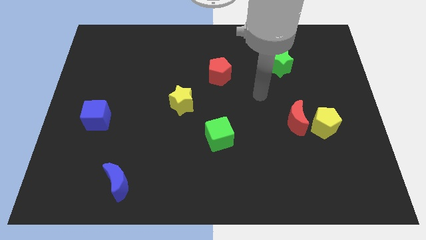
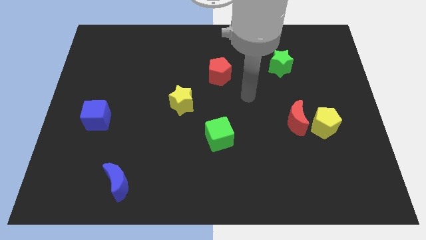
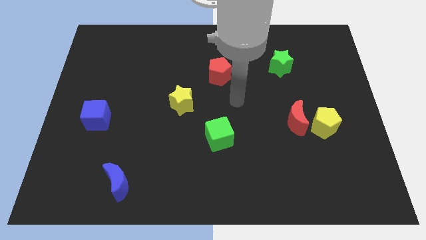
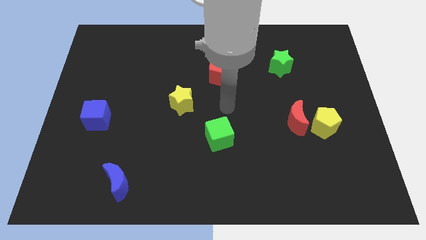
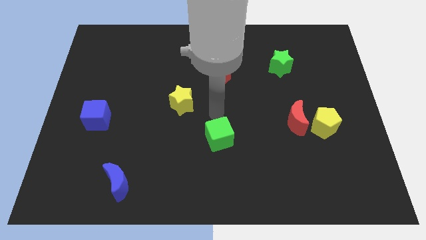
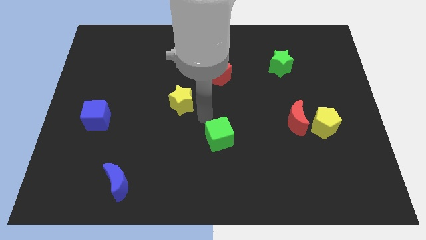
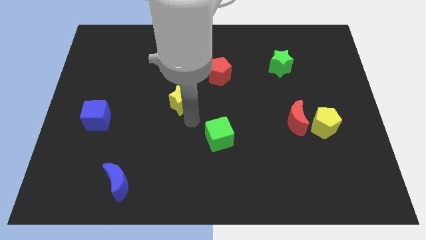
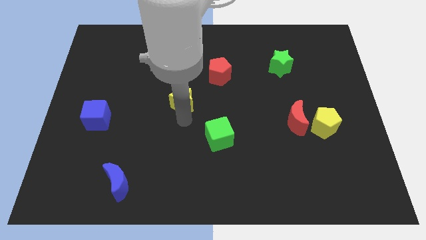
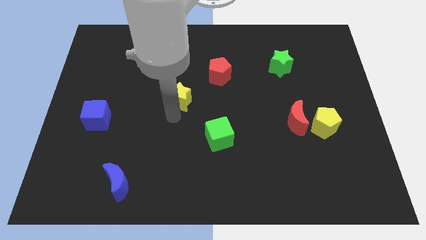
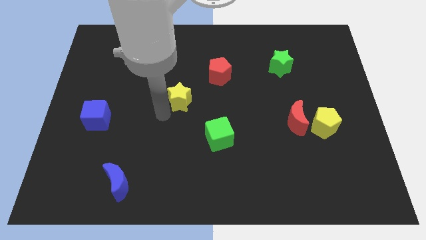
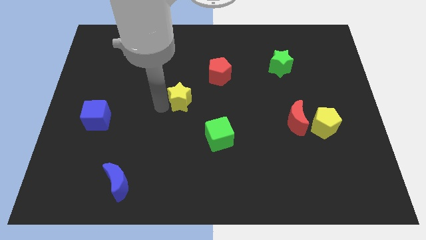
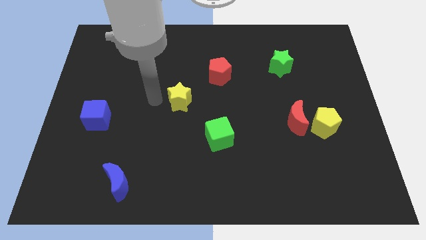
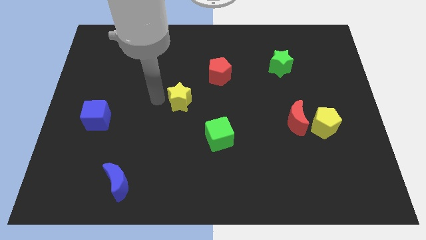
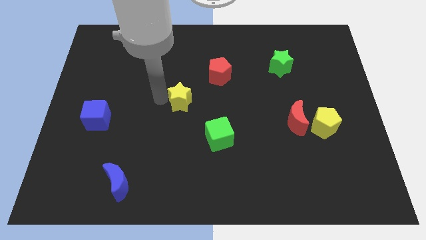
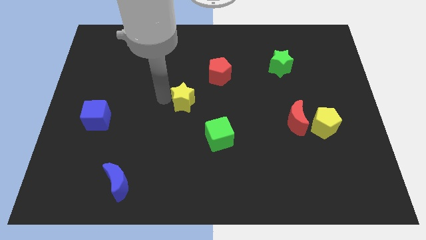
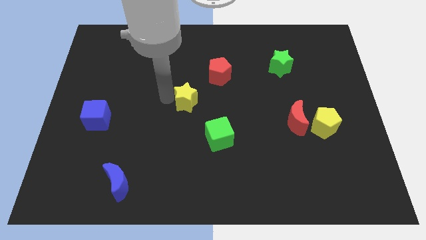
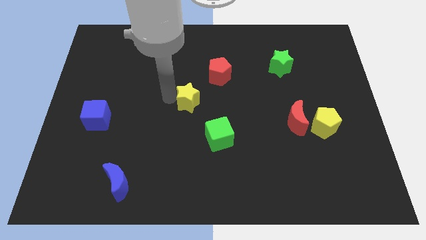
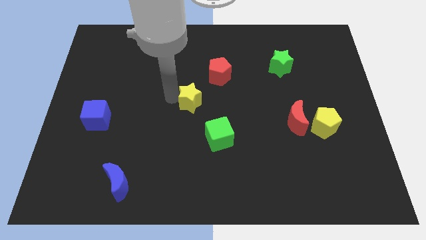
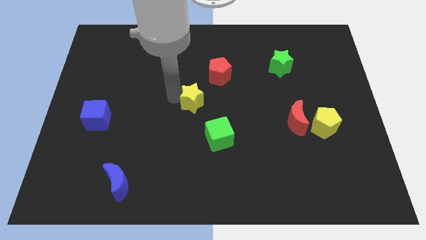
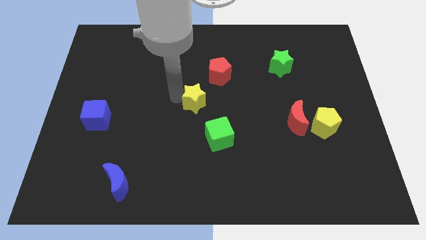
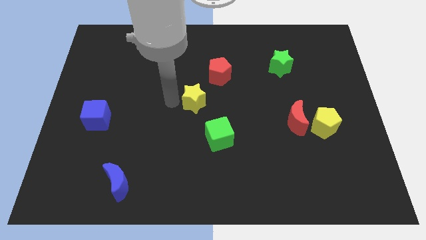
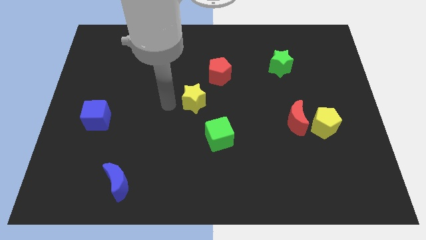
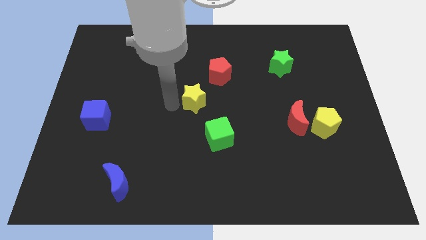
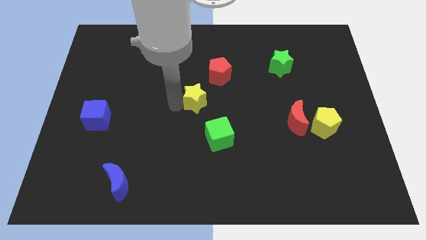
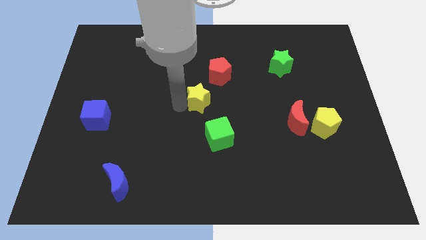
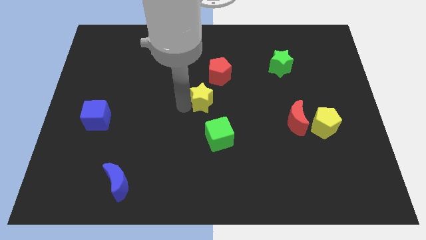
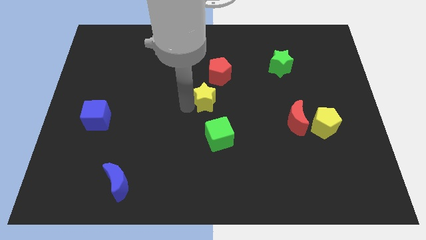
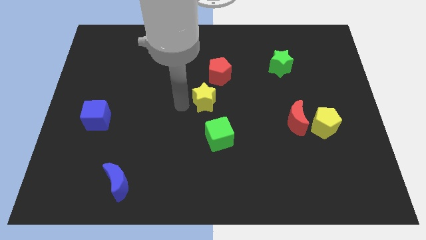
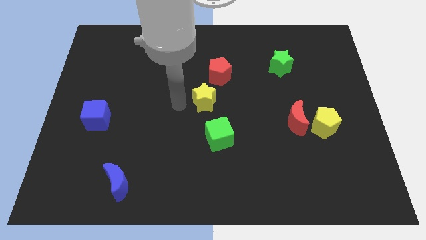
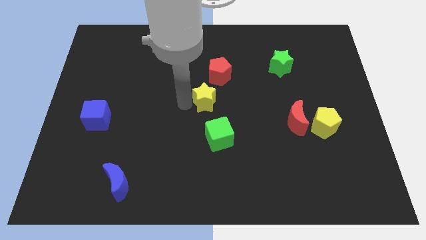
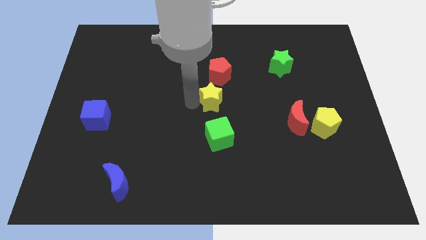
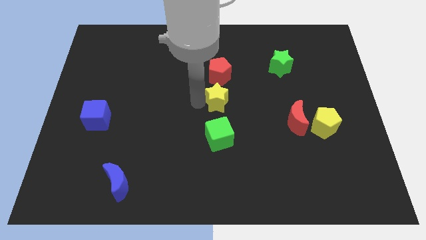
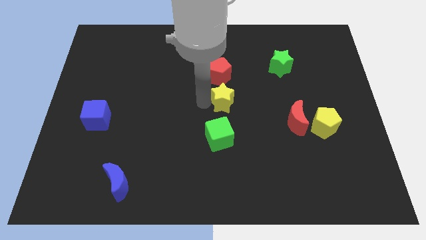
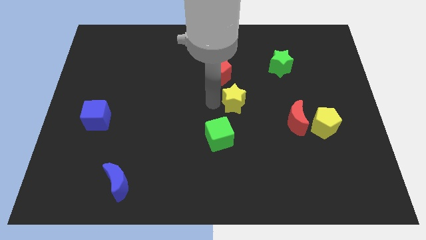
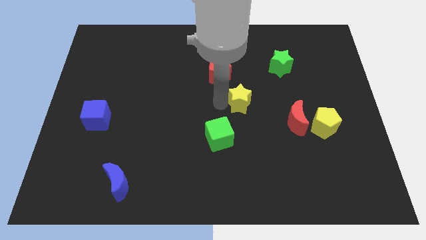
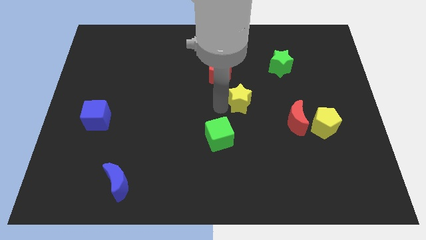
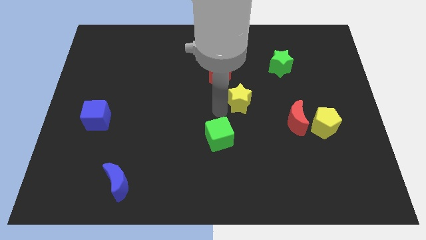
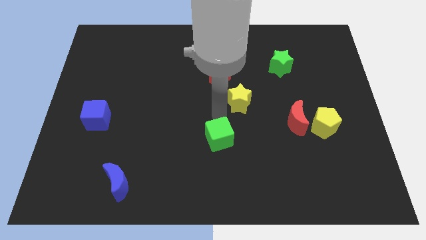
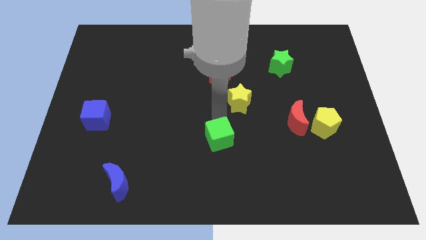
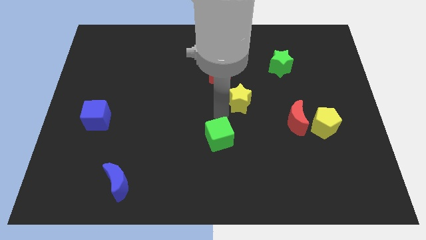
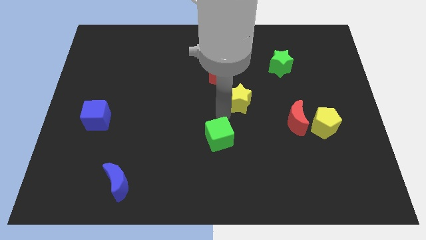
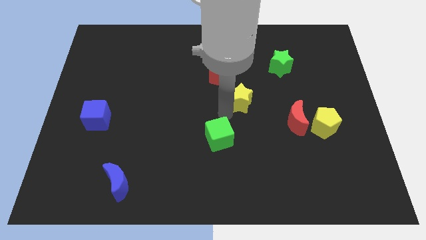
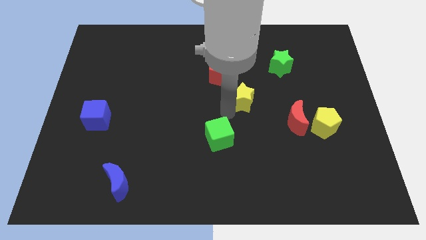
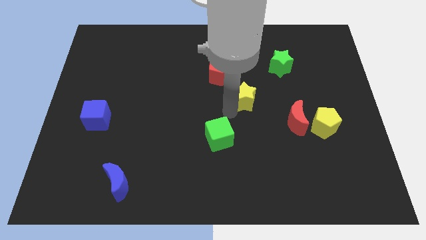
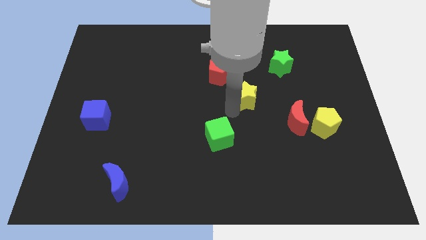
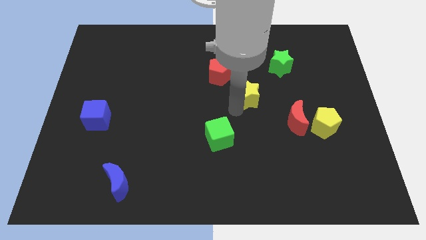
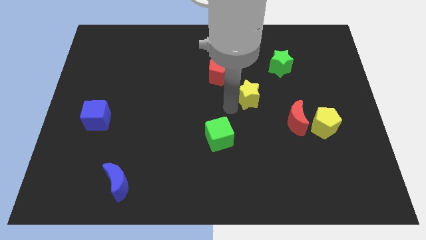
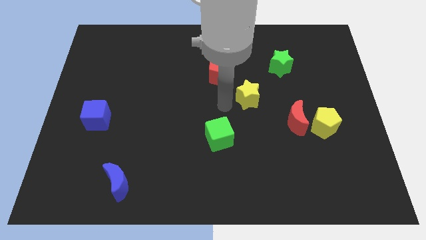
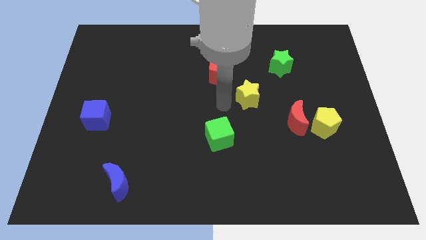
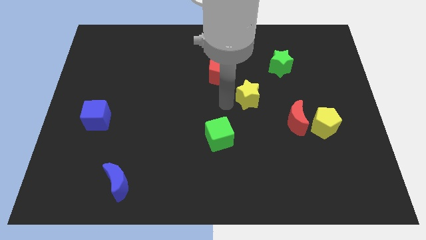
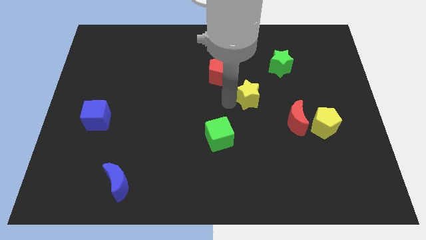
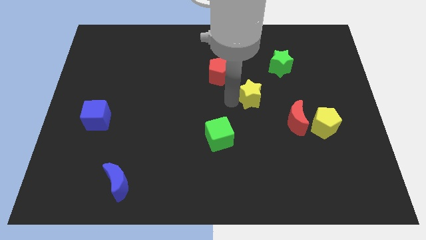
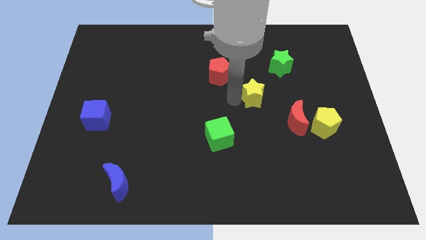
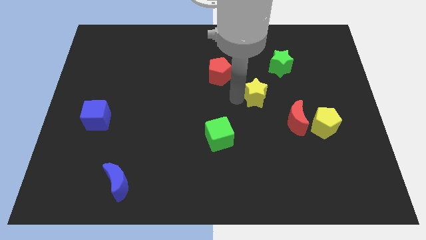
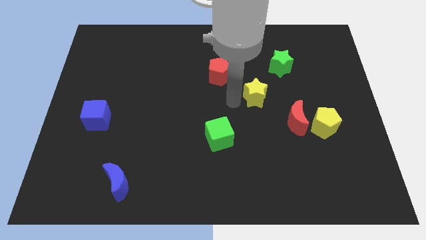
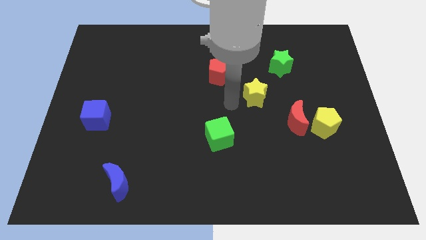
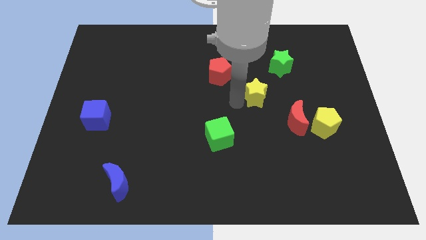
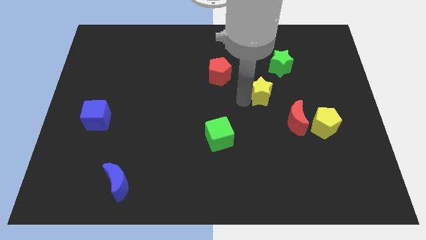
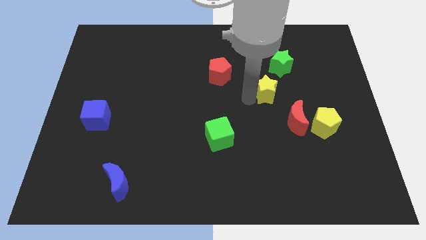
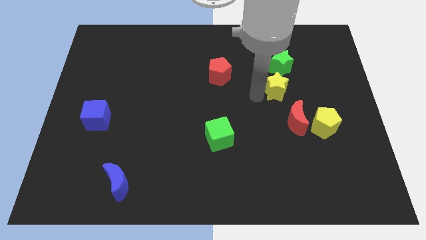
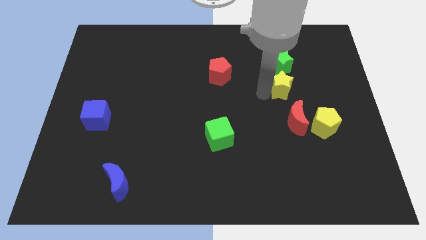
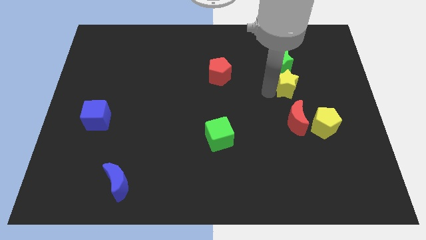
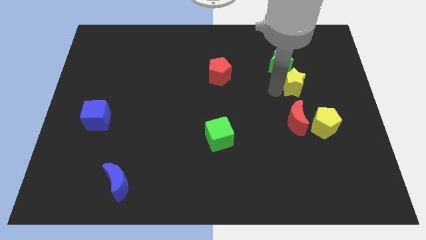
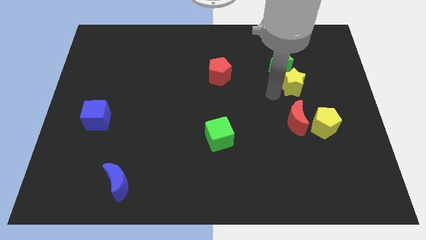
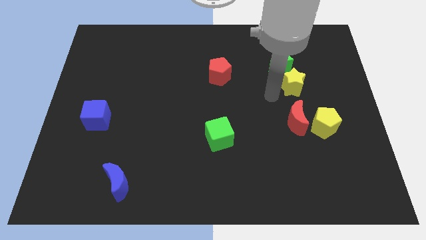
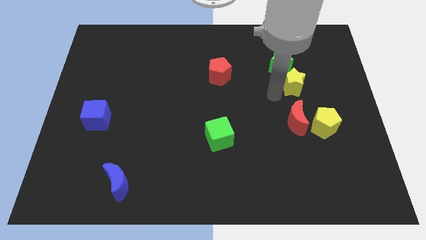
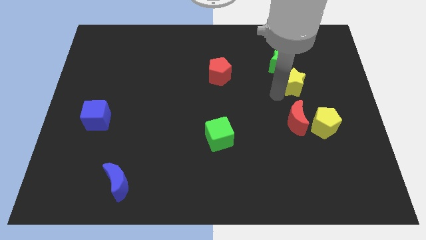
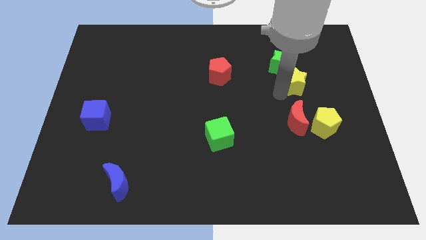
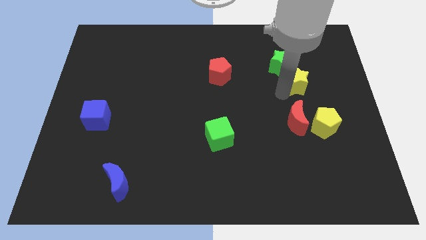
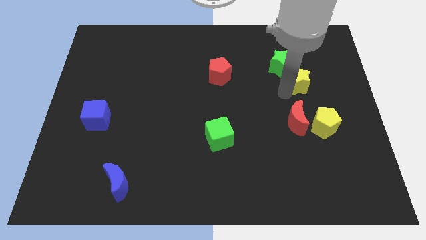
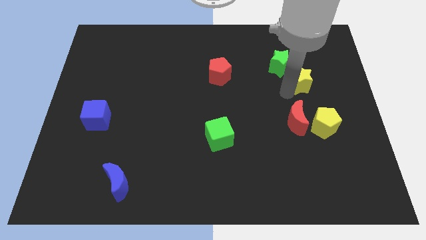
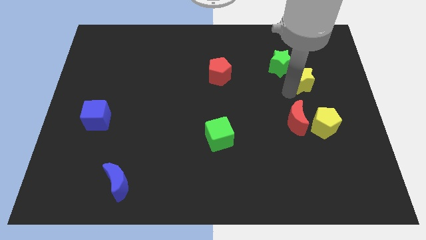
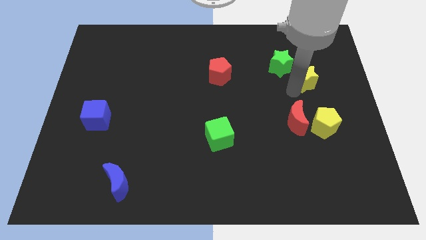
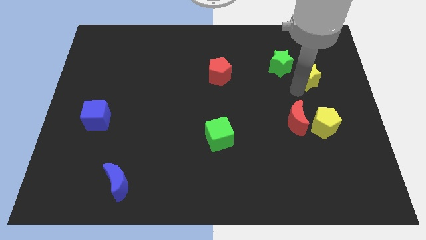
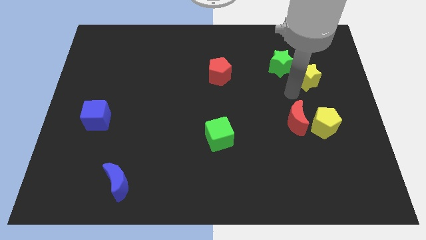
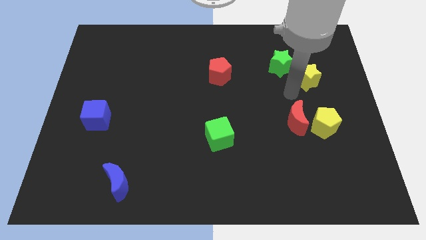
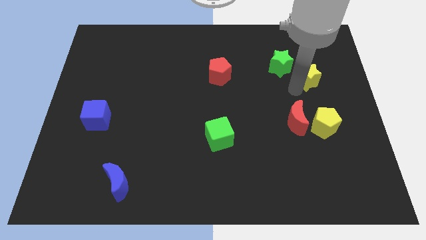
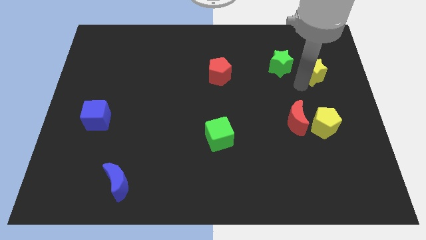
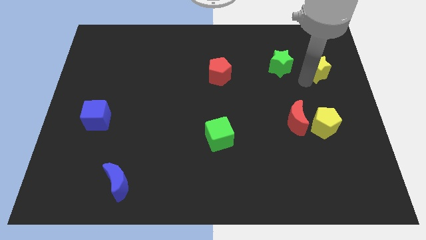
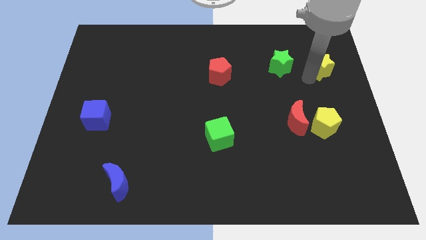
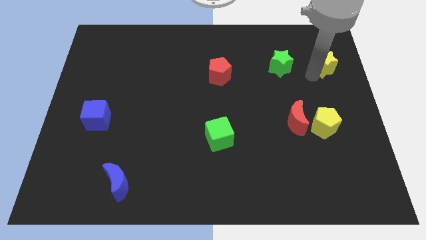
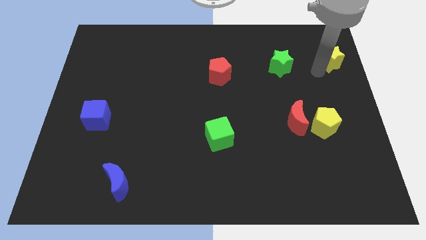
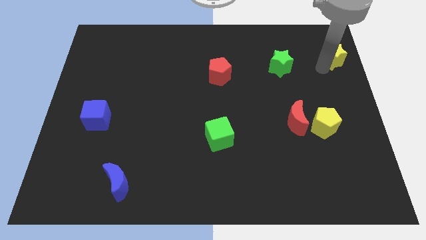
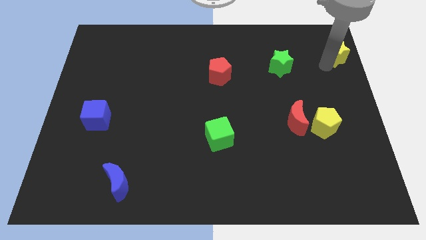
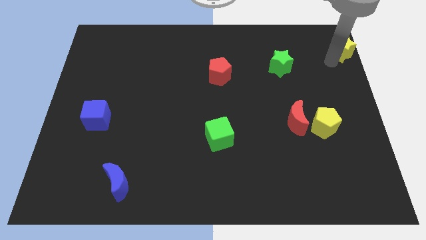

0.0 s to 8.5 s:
slide the yellow star to the top right of the board
